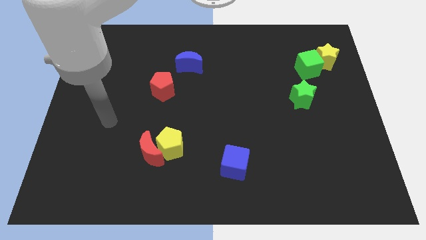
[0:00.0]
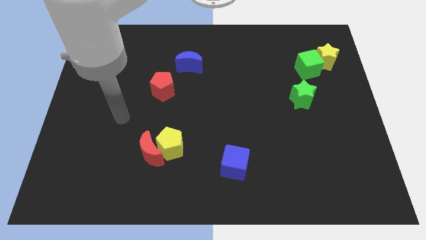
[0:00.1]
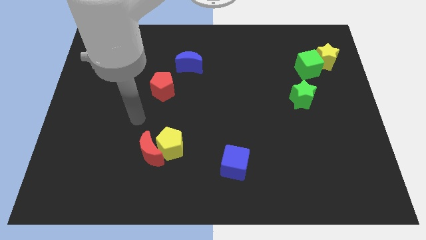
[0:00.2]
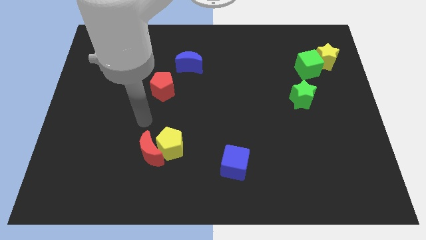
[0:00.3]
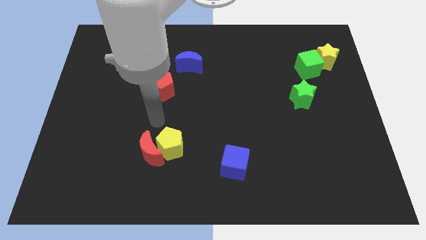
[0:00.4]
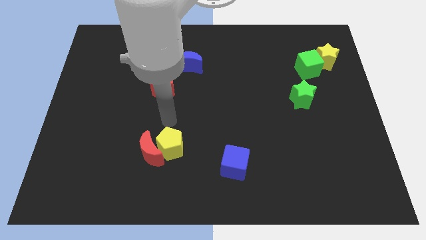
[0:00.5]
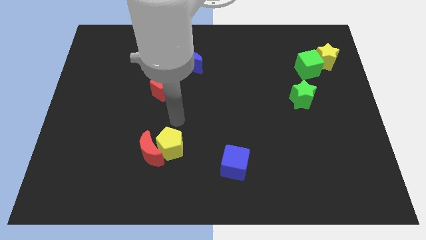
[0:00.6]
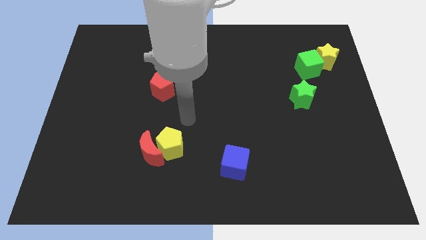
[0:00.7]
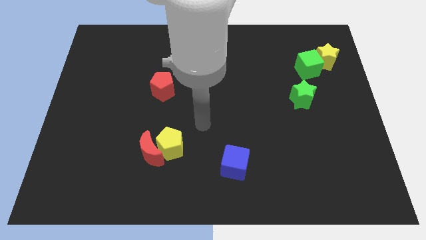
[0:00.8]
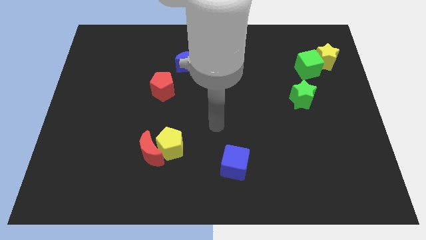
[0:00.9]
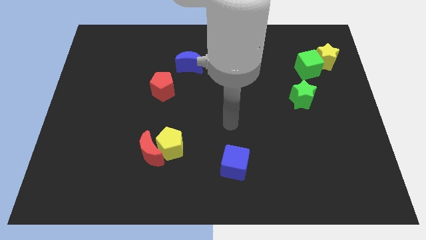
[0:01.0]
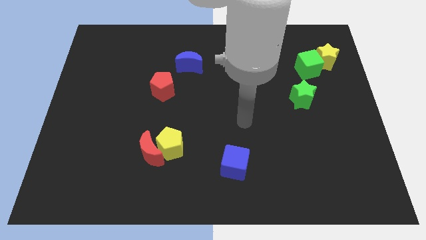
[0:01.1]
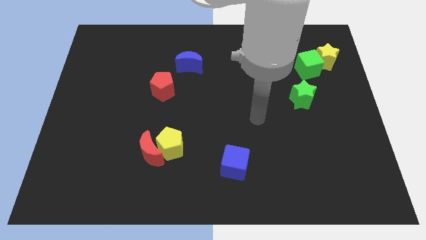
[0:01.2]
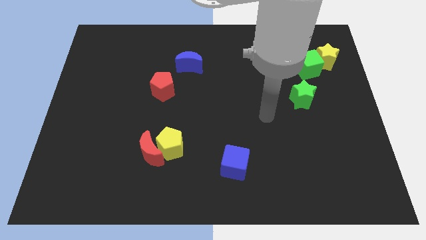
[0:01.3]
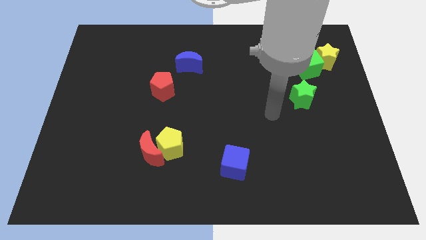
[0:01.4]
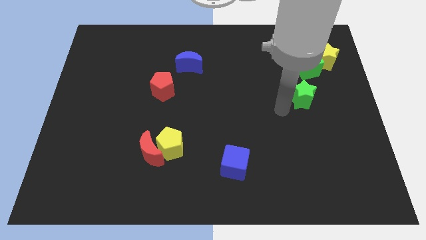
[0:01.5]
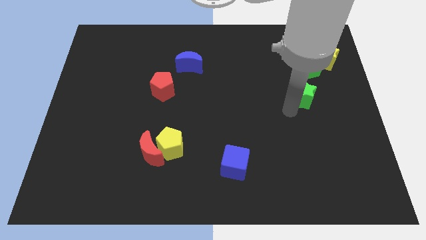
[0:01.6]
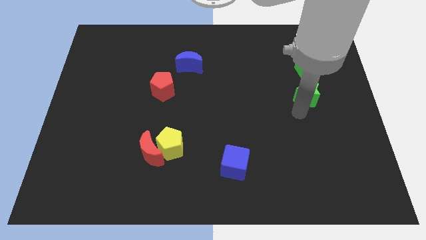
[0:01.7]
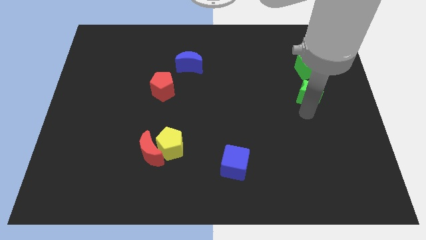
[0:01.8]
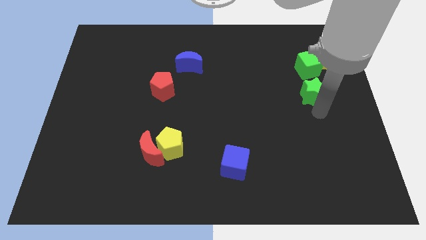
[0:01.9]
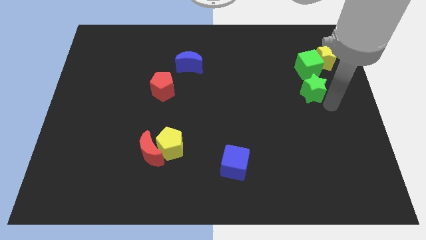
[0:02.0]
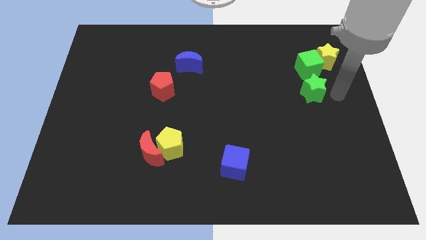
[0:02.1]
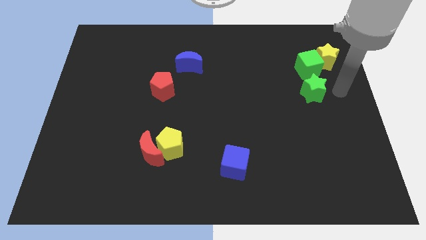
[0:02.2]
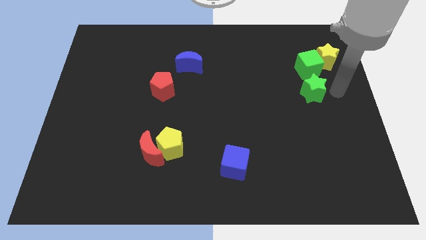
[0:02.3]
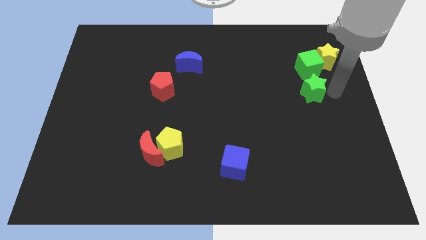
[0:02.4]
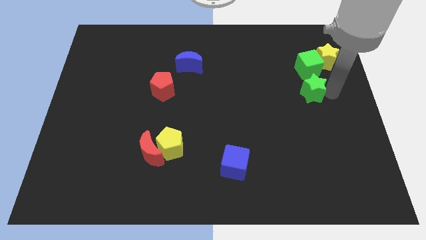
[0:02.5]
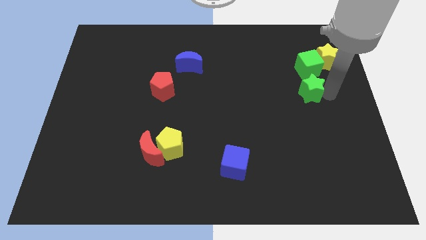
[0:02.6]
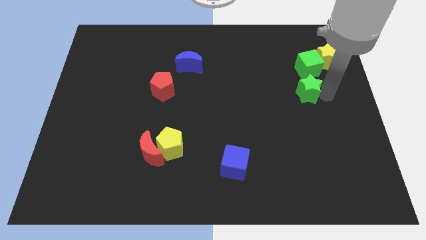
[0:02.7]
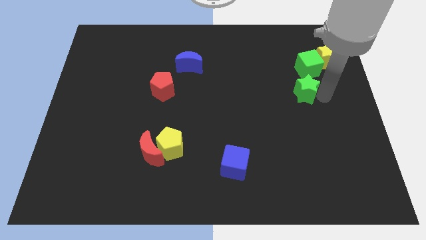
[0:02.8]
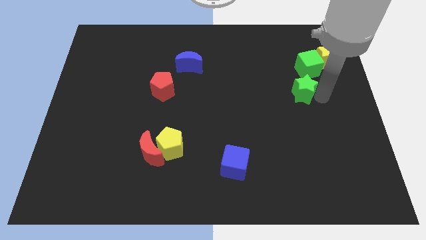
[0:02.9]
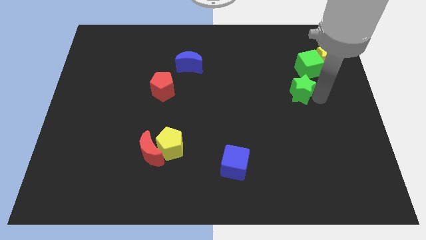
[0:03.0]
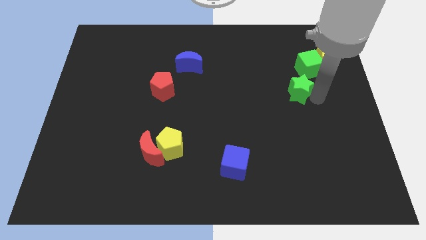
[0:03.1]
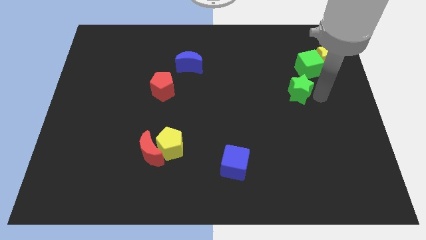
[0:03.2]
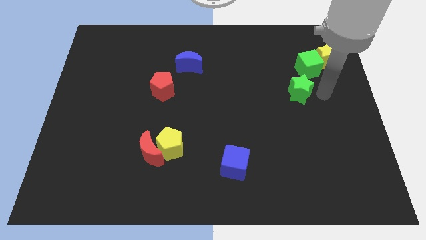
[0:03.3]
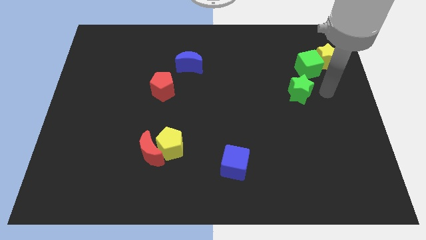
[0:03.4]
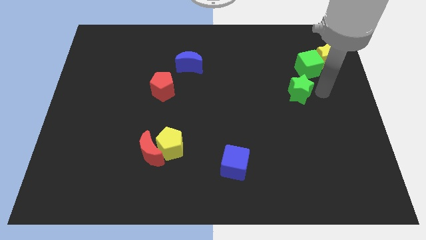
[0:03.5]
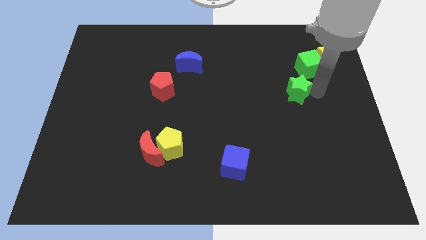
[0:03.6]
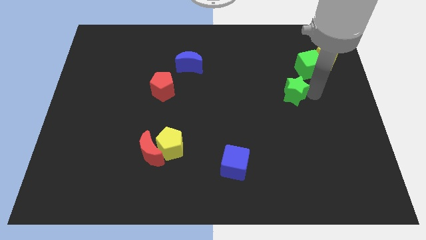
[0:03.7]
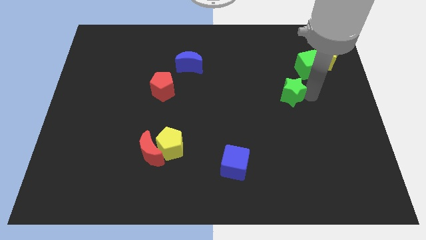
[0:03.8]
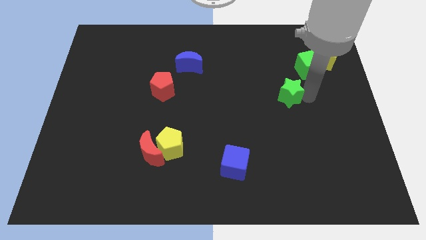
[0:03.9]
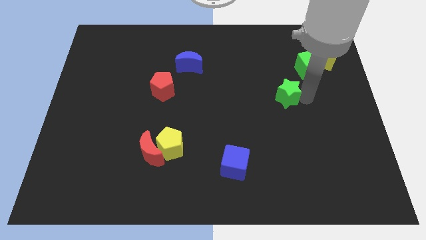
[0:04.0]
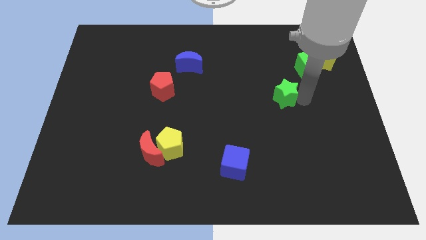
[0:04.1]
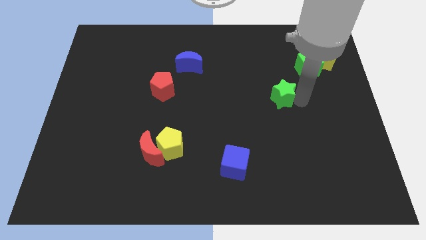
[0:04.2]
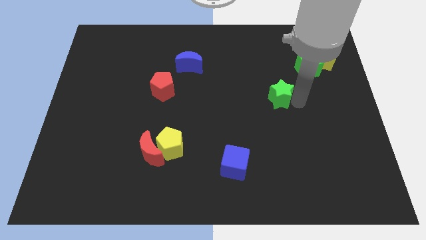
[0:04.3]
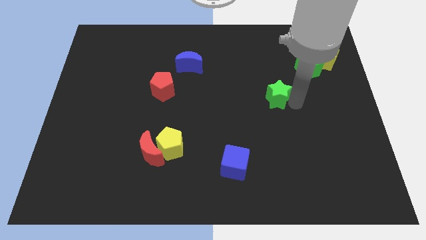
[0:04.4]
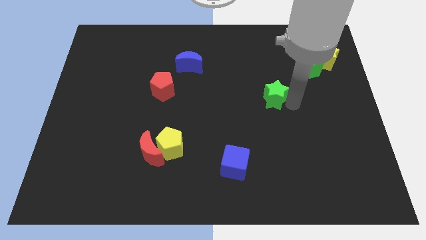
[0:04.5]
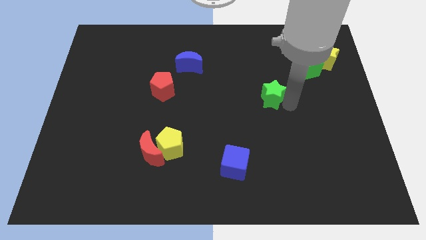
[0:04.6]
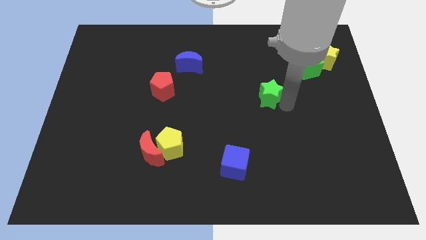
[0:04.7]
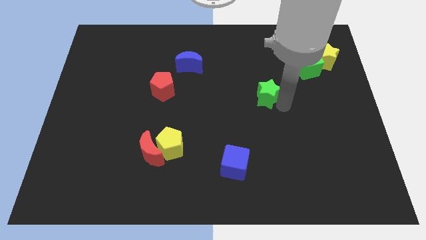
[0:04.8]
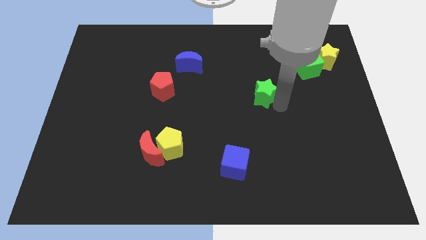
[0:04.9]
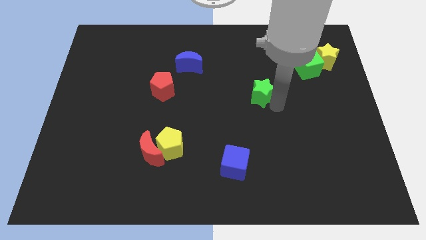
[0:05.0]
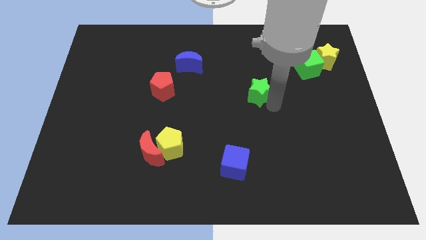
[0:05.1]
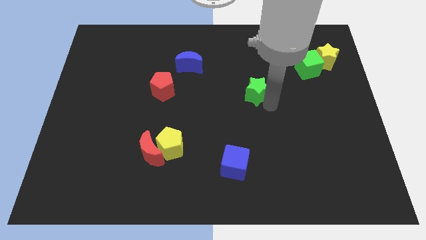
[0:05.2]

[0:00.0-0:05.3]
move the green star somewhat up and left diagonally

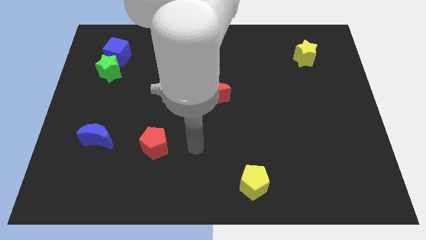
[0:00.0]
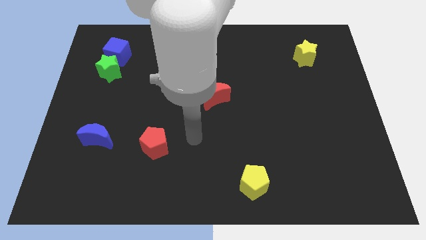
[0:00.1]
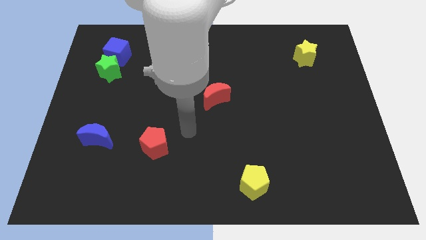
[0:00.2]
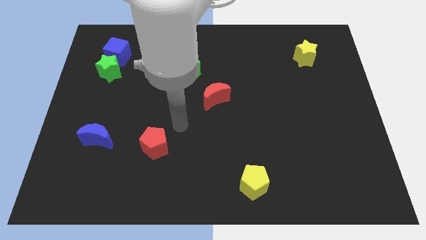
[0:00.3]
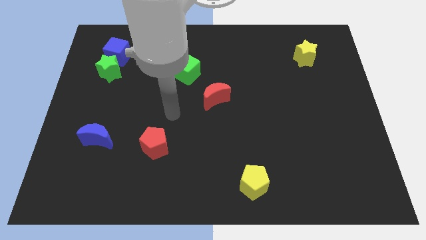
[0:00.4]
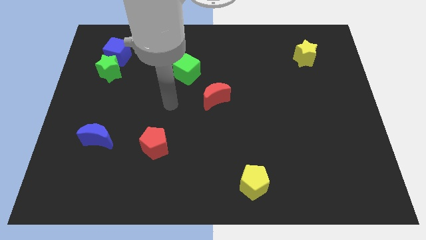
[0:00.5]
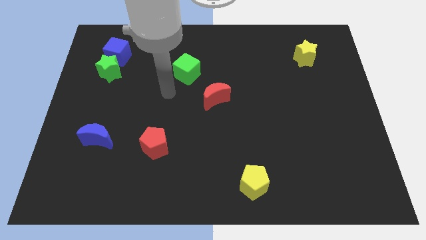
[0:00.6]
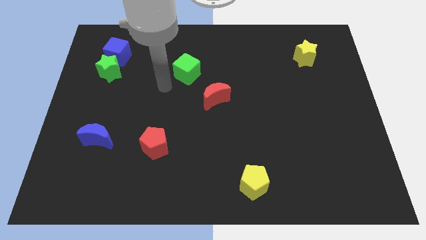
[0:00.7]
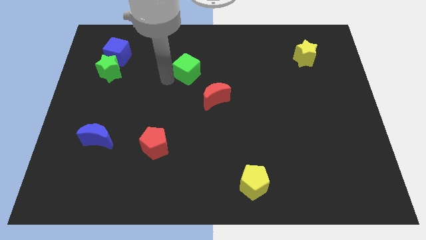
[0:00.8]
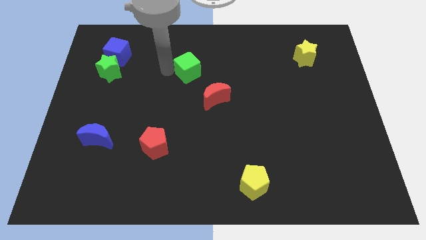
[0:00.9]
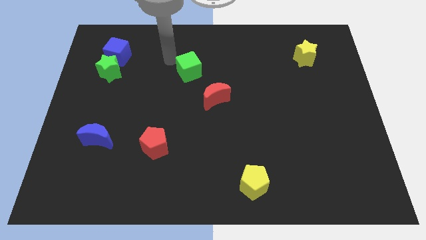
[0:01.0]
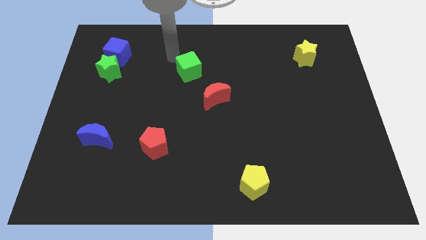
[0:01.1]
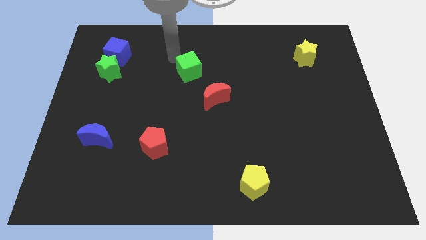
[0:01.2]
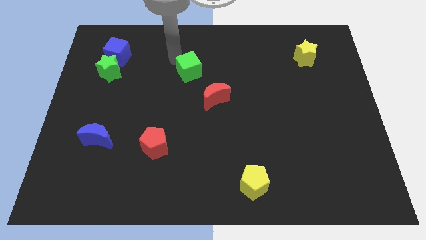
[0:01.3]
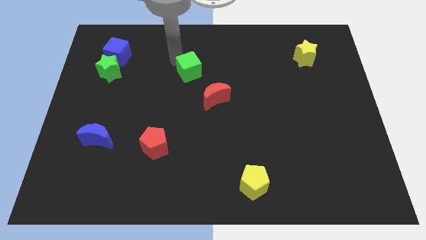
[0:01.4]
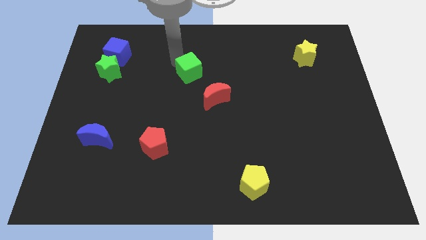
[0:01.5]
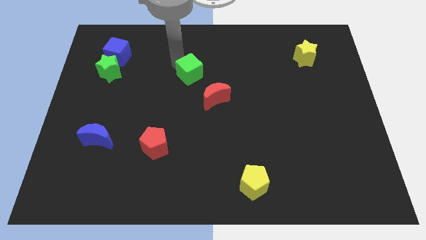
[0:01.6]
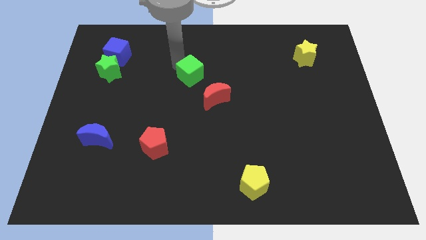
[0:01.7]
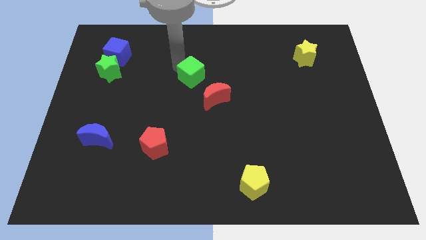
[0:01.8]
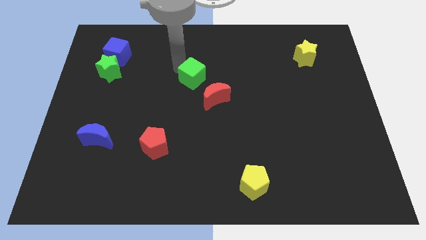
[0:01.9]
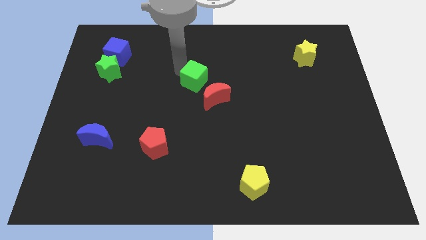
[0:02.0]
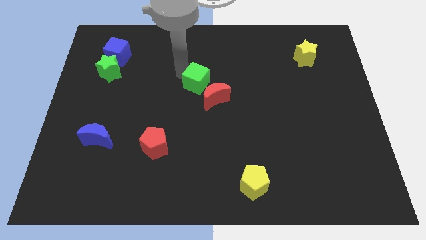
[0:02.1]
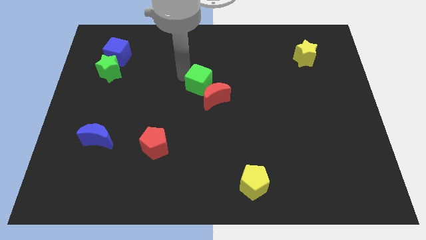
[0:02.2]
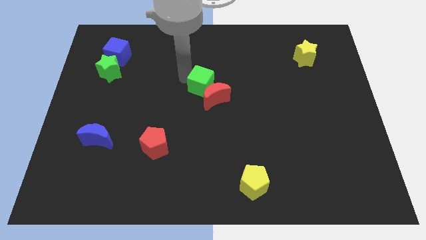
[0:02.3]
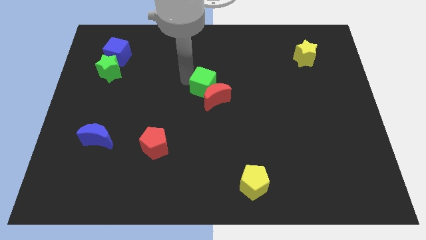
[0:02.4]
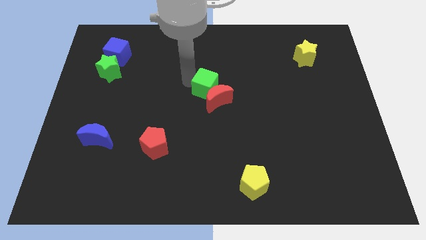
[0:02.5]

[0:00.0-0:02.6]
slightly move the green cube down and right diagonally

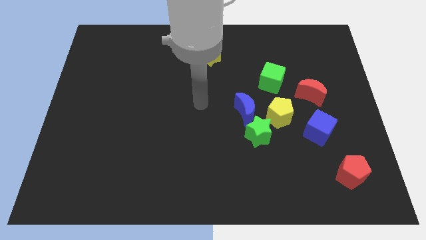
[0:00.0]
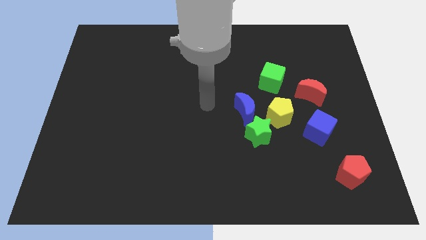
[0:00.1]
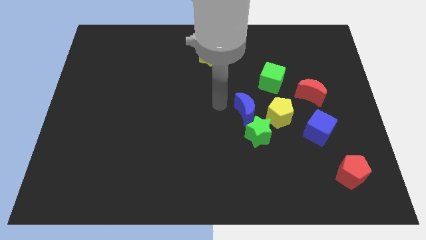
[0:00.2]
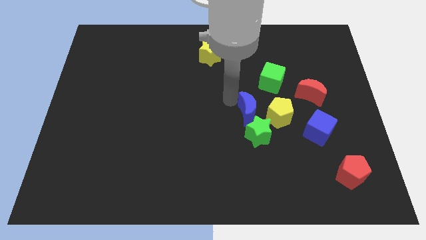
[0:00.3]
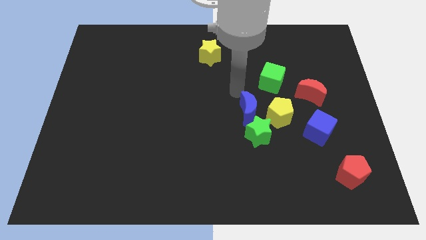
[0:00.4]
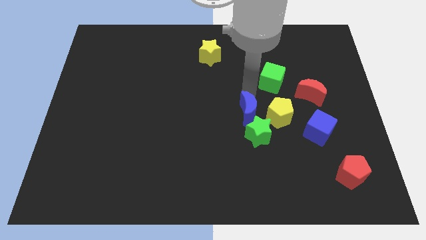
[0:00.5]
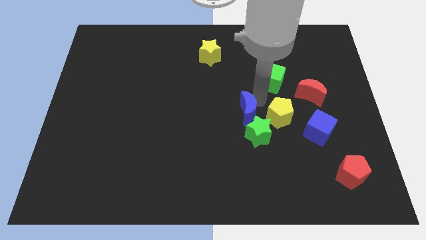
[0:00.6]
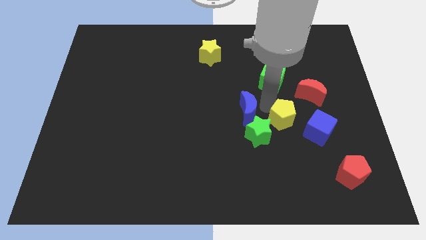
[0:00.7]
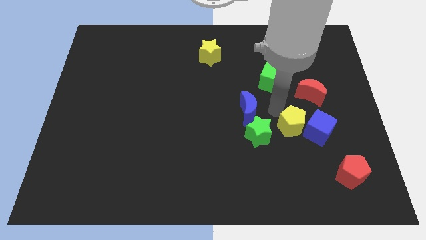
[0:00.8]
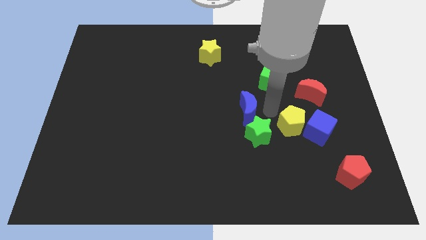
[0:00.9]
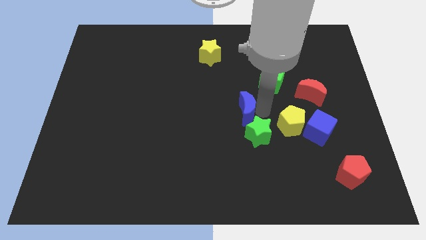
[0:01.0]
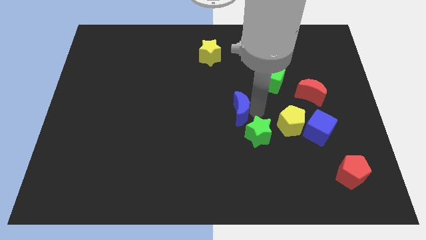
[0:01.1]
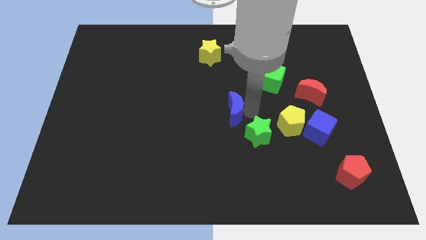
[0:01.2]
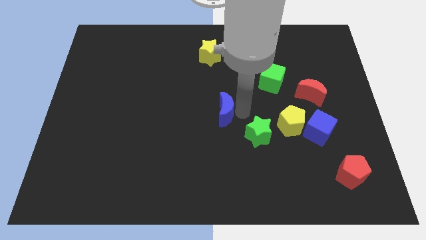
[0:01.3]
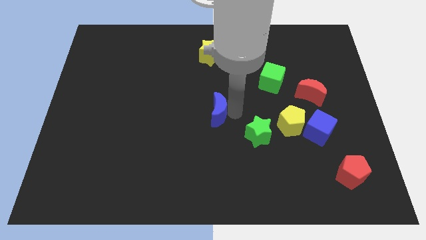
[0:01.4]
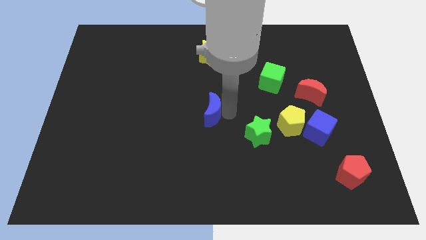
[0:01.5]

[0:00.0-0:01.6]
move the blue moon a little bit to the left
